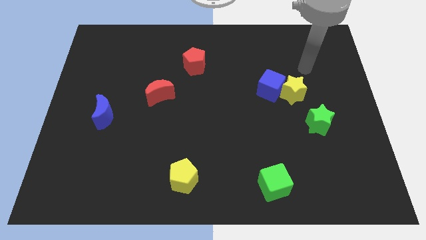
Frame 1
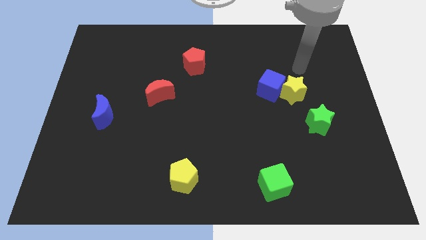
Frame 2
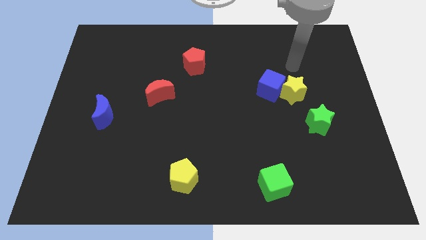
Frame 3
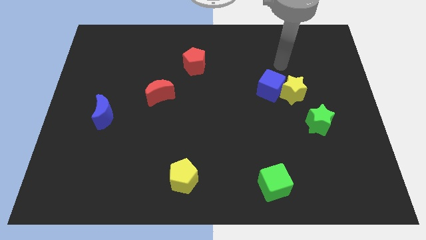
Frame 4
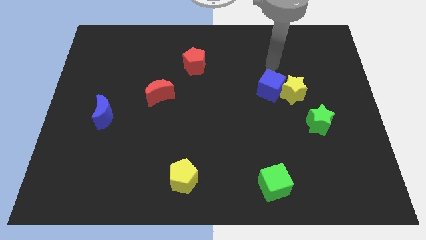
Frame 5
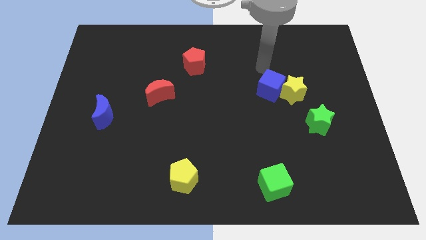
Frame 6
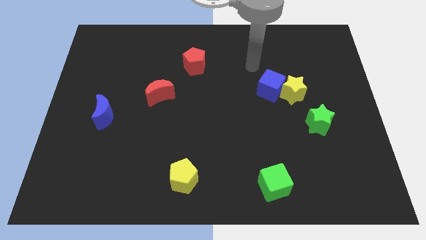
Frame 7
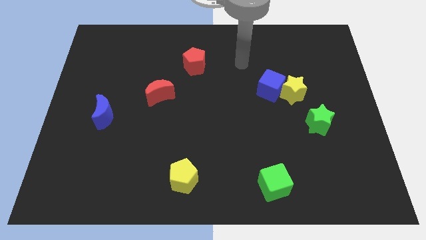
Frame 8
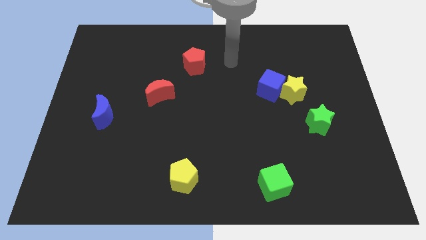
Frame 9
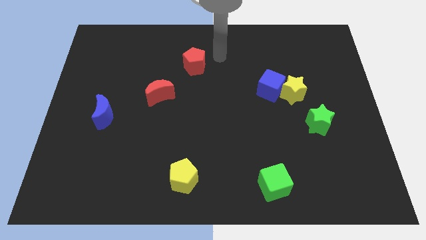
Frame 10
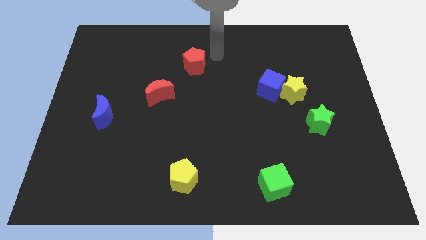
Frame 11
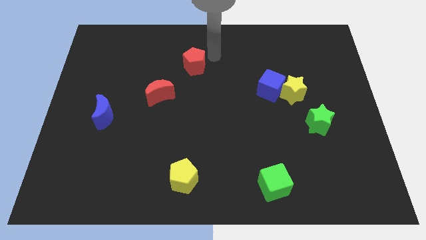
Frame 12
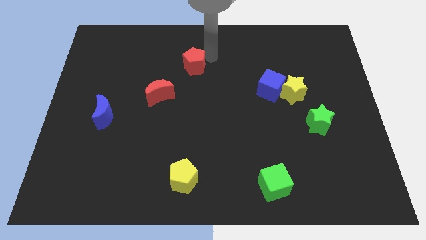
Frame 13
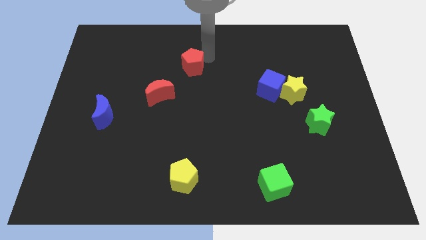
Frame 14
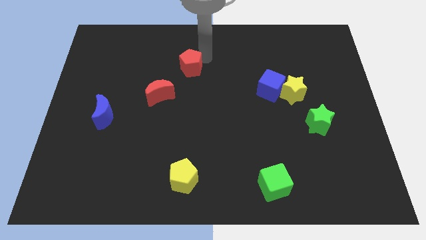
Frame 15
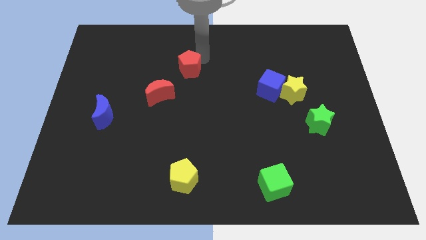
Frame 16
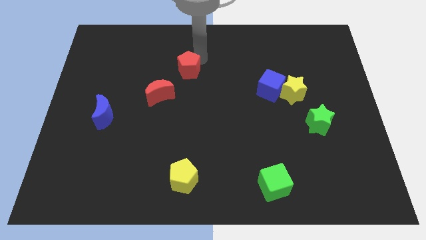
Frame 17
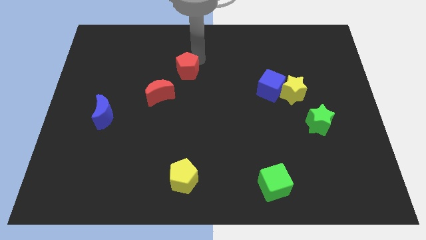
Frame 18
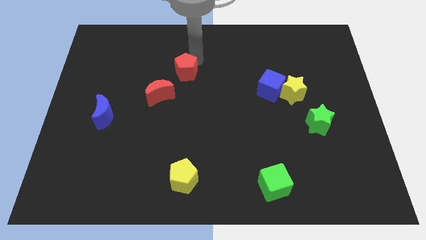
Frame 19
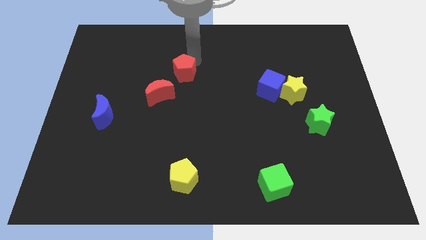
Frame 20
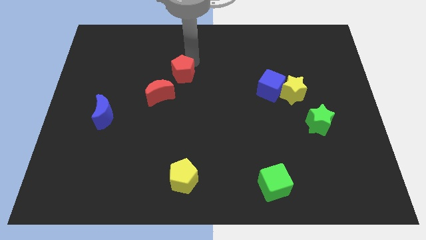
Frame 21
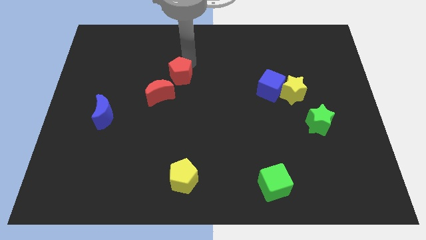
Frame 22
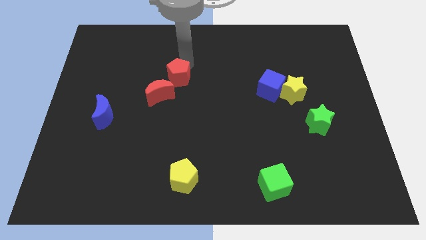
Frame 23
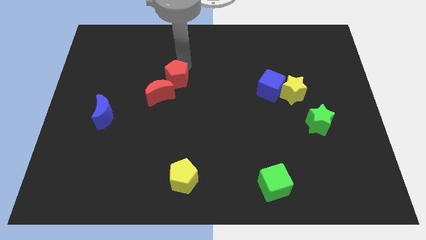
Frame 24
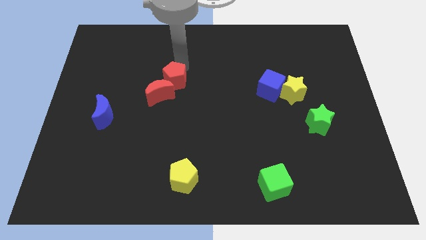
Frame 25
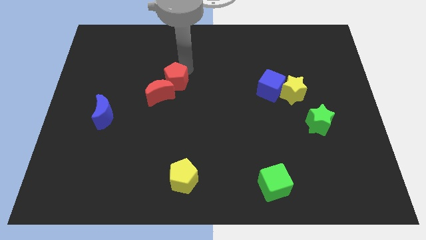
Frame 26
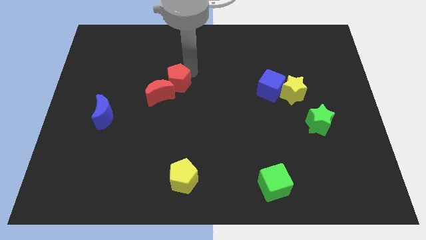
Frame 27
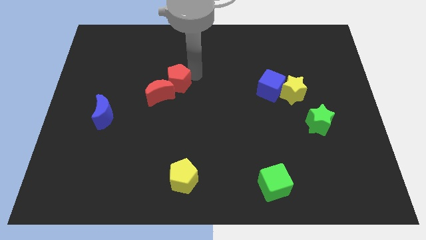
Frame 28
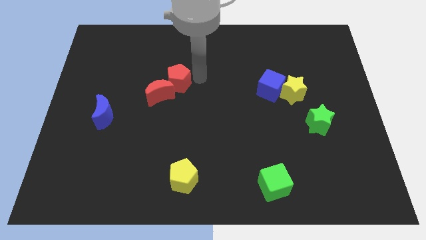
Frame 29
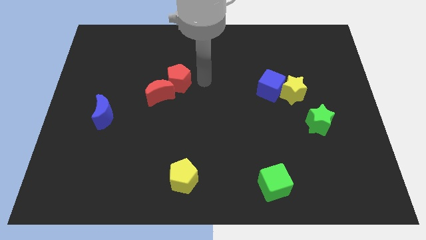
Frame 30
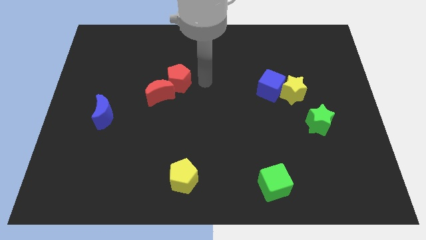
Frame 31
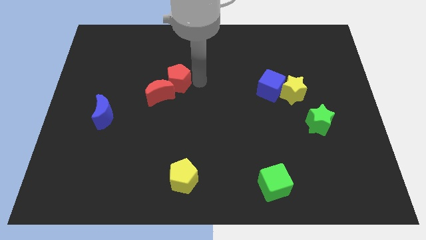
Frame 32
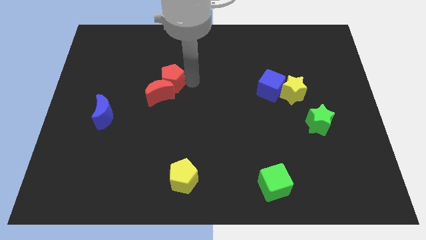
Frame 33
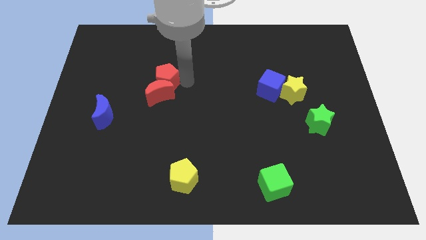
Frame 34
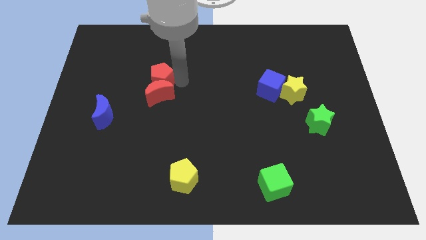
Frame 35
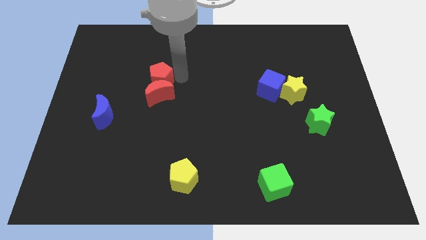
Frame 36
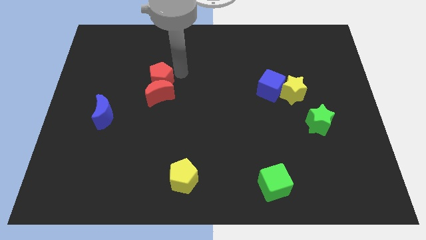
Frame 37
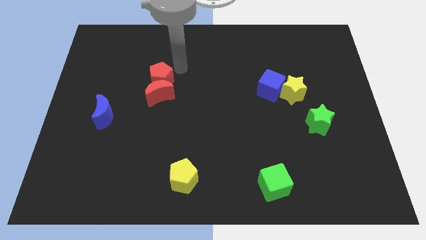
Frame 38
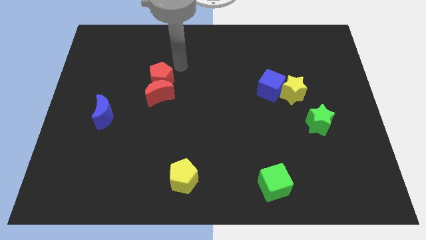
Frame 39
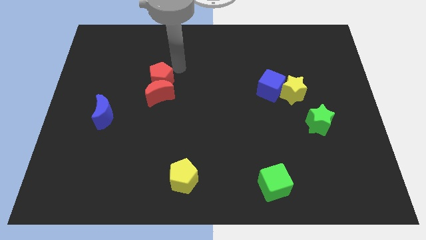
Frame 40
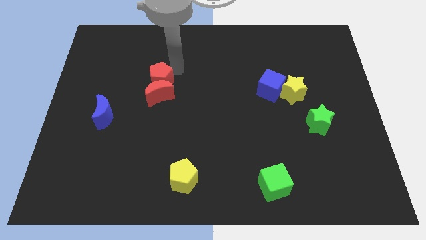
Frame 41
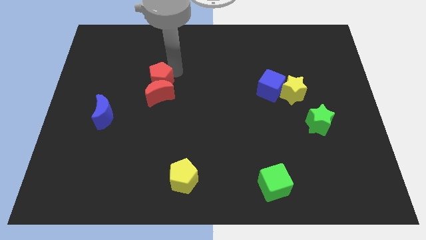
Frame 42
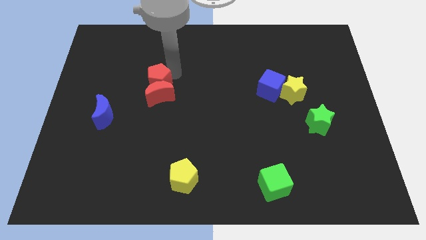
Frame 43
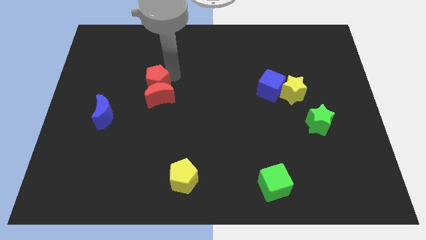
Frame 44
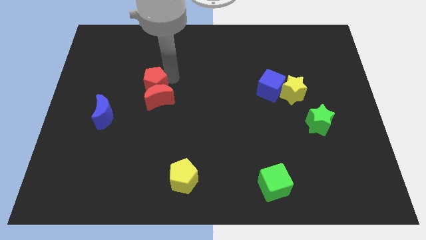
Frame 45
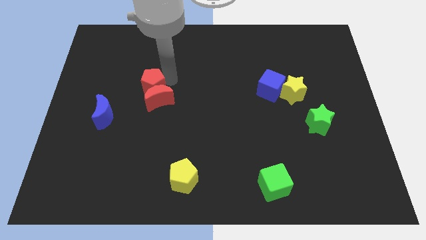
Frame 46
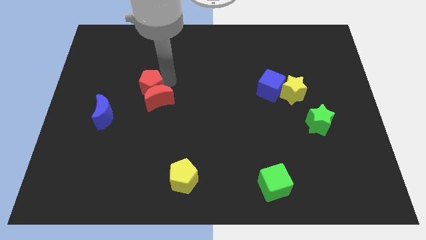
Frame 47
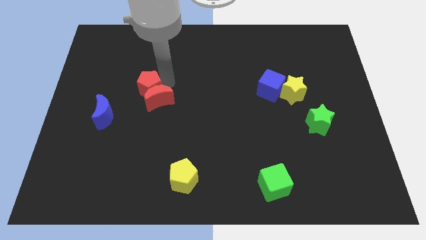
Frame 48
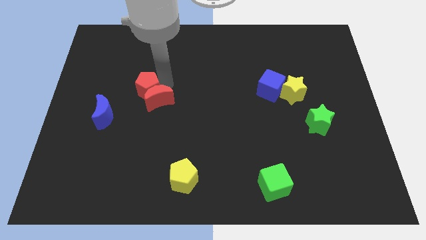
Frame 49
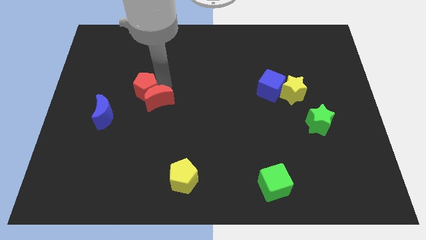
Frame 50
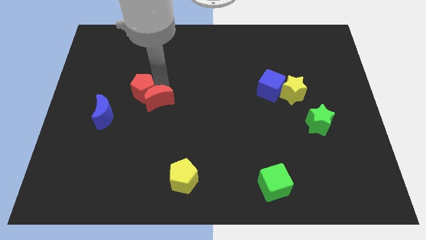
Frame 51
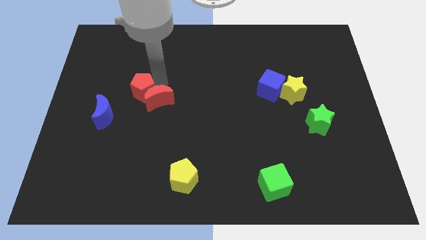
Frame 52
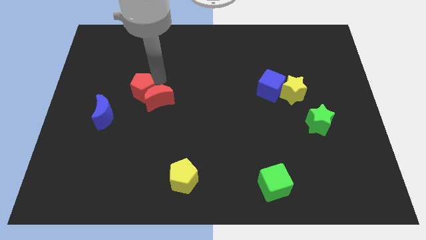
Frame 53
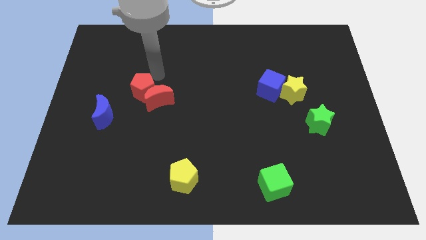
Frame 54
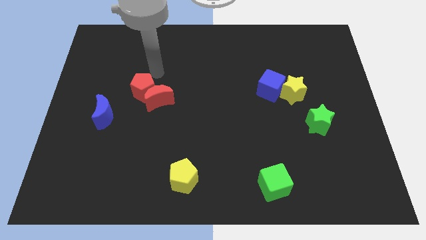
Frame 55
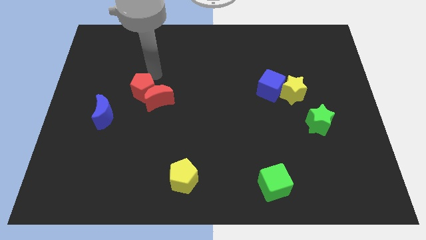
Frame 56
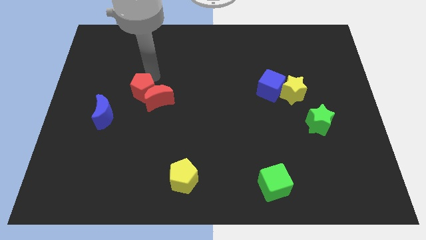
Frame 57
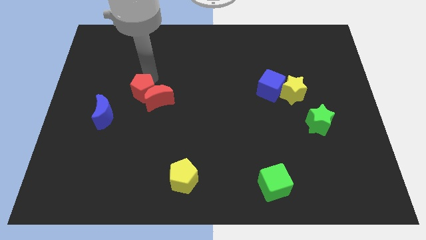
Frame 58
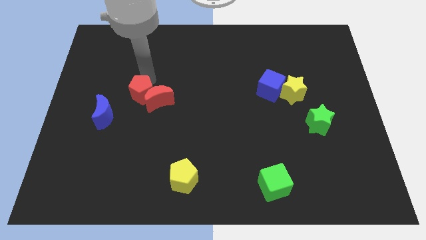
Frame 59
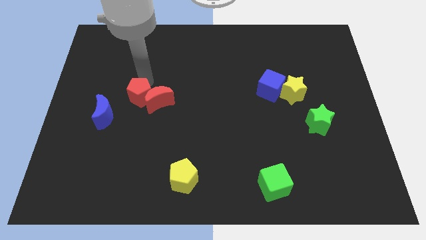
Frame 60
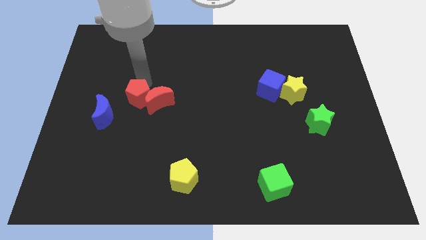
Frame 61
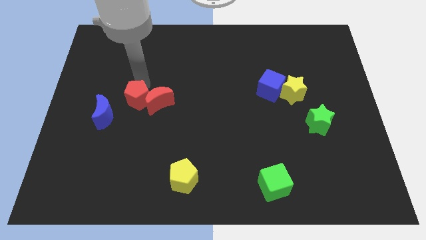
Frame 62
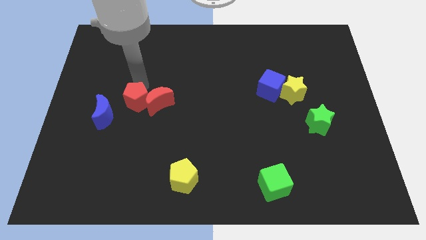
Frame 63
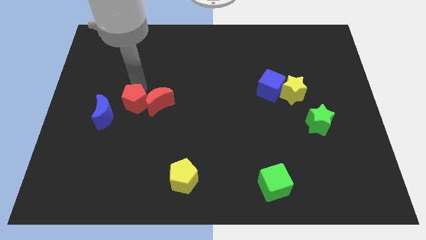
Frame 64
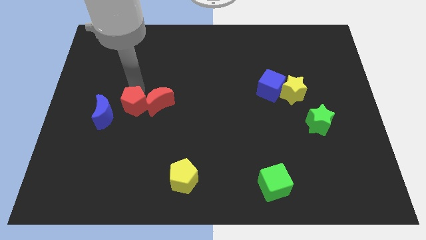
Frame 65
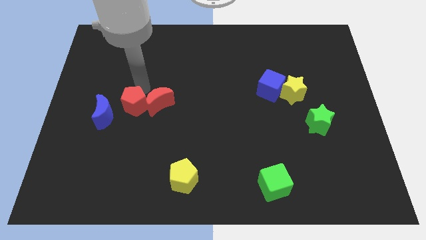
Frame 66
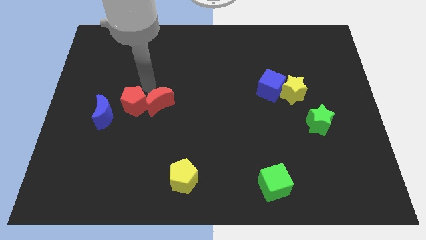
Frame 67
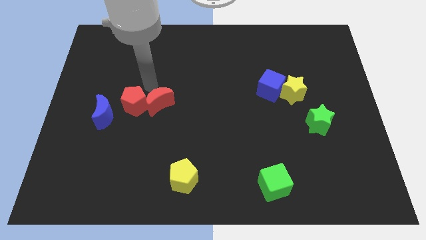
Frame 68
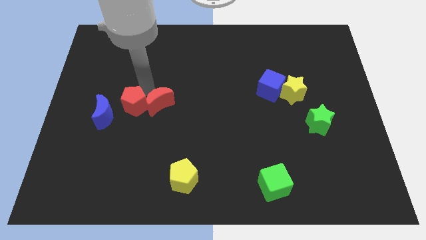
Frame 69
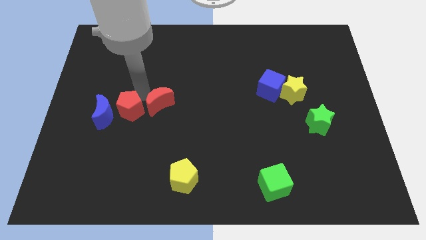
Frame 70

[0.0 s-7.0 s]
push the red pentagon diagonally downwards and to the left

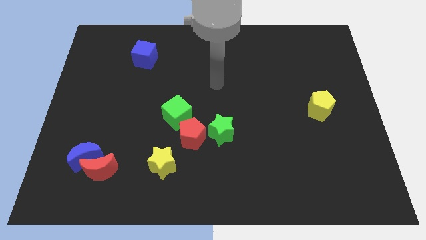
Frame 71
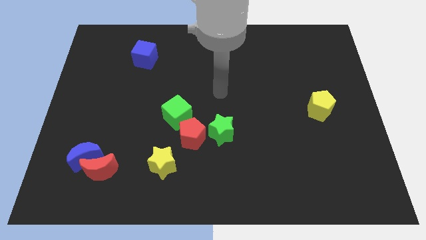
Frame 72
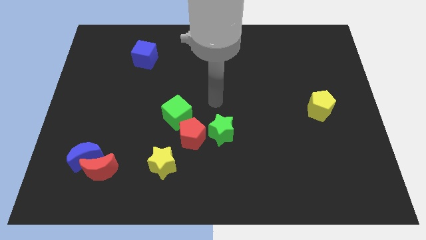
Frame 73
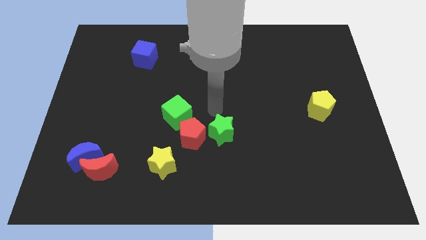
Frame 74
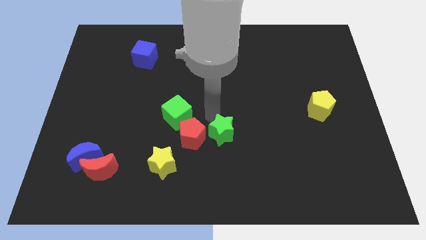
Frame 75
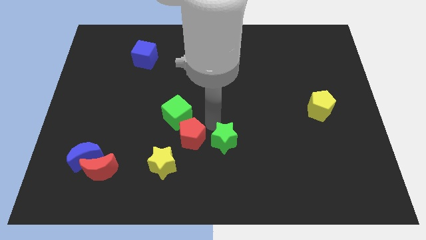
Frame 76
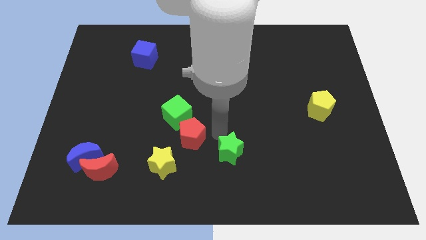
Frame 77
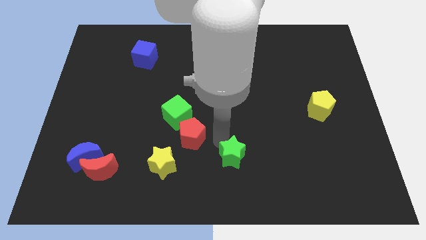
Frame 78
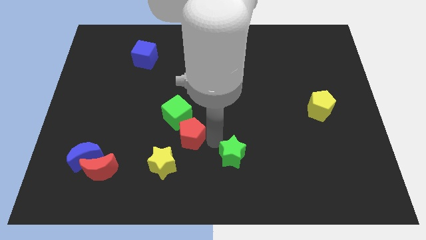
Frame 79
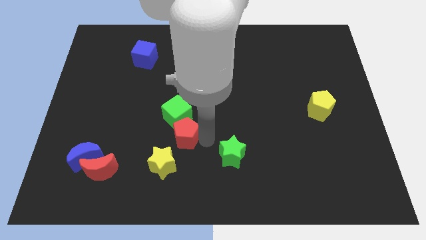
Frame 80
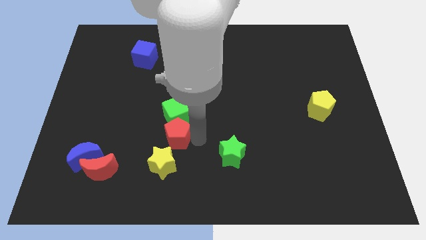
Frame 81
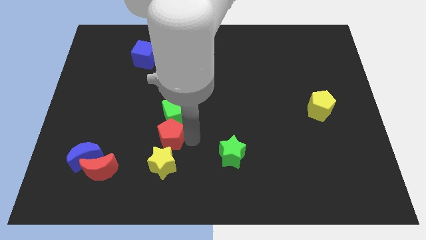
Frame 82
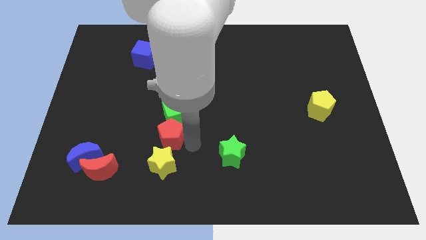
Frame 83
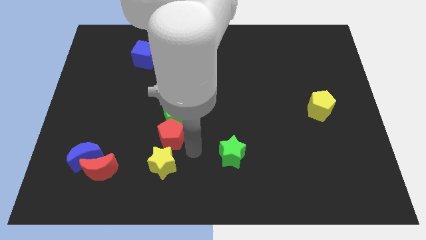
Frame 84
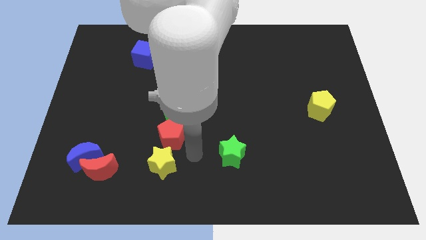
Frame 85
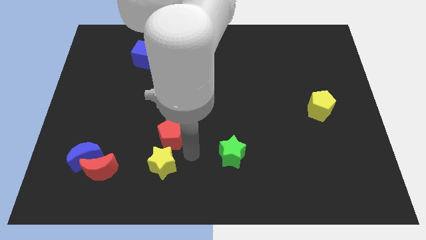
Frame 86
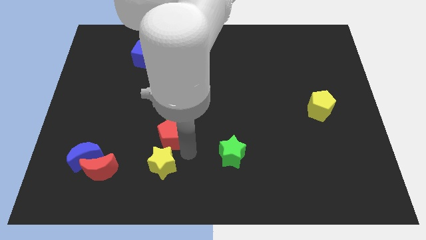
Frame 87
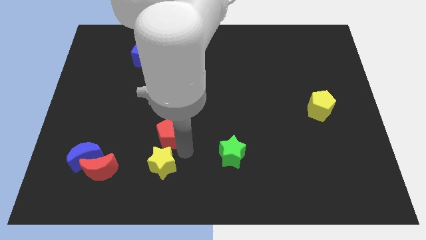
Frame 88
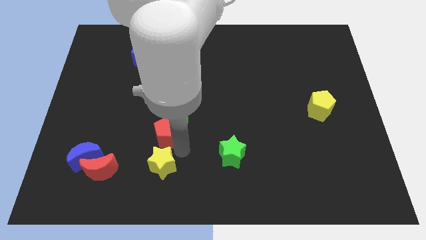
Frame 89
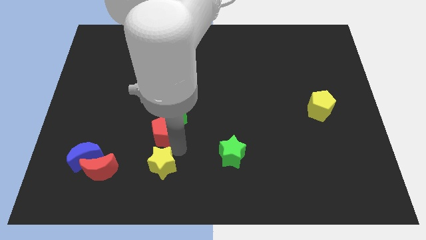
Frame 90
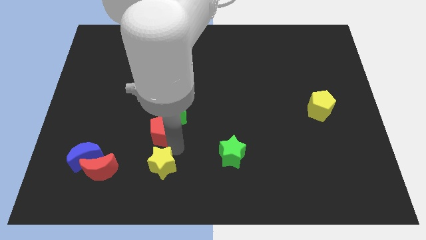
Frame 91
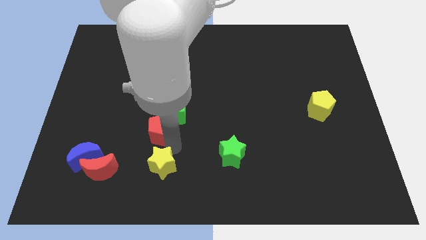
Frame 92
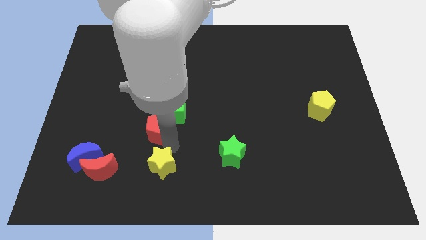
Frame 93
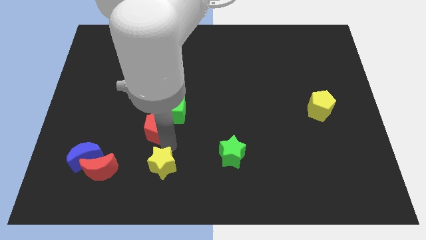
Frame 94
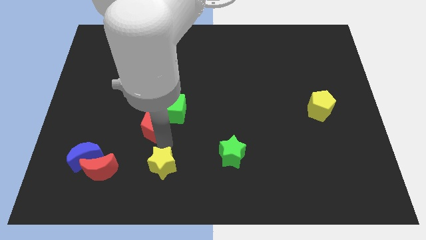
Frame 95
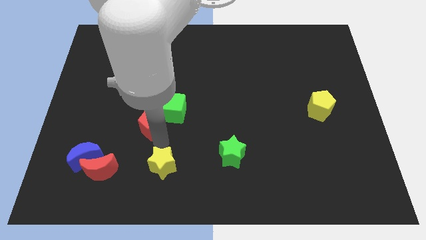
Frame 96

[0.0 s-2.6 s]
push the red pentagon up and left diagonally a bit
